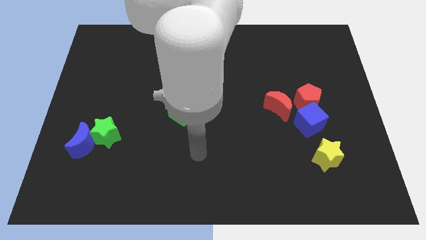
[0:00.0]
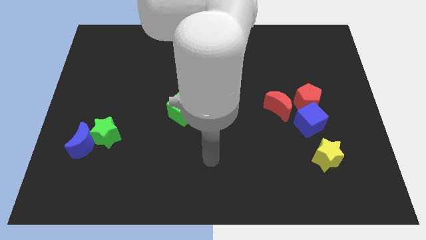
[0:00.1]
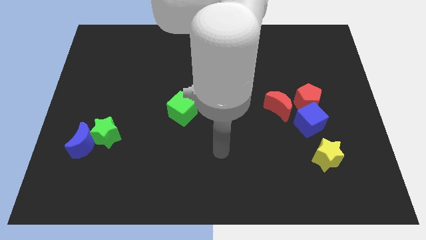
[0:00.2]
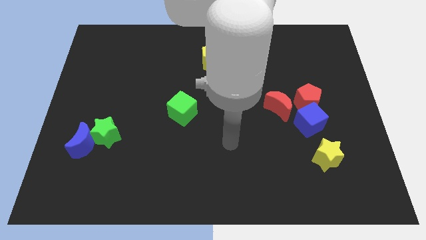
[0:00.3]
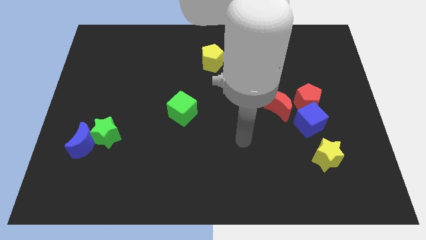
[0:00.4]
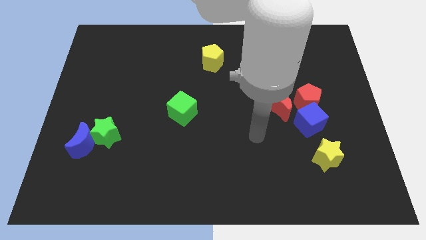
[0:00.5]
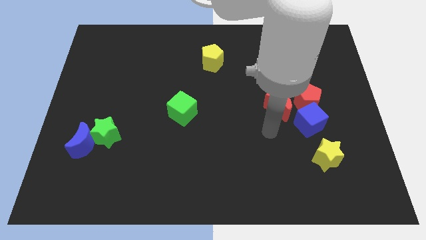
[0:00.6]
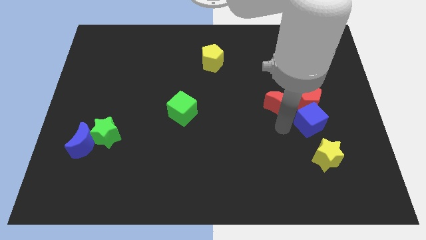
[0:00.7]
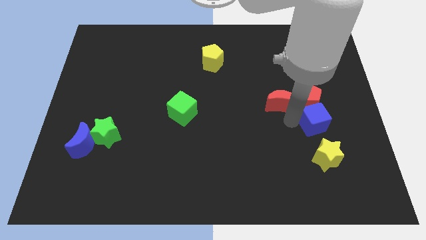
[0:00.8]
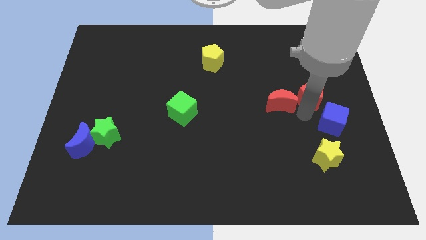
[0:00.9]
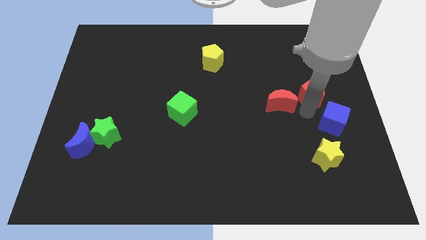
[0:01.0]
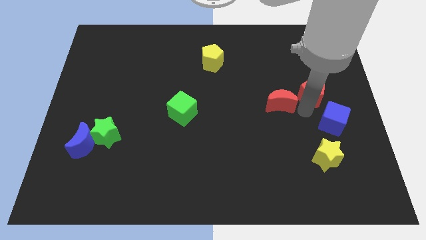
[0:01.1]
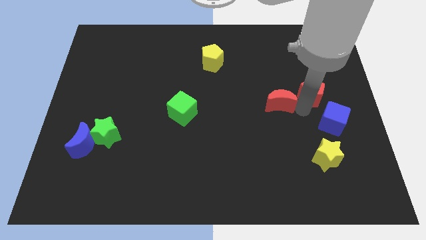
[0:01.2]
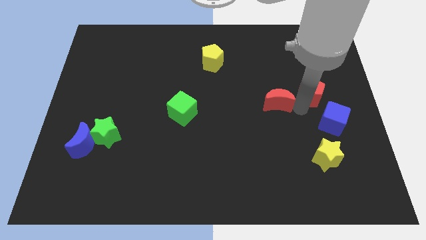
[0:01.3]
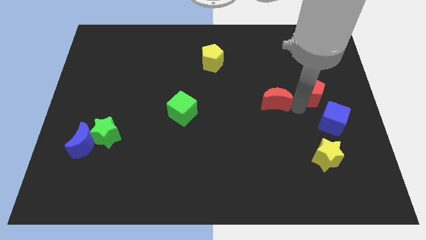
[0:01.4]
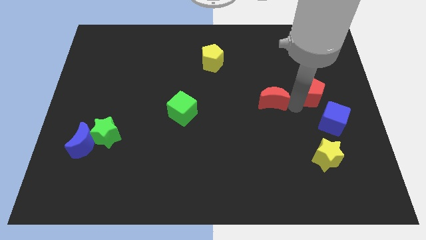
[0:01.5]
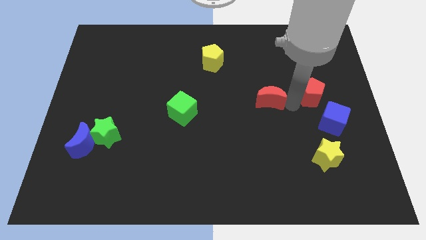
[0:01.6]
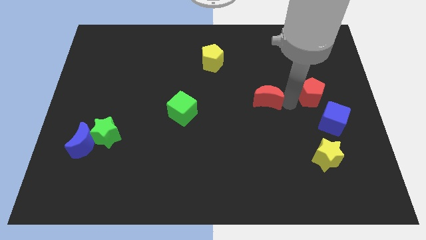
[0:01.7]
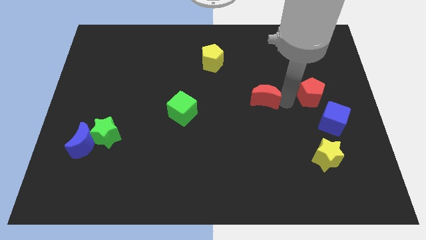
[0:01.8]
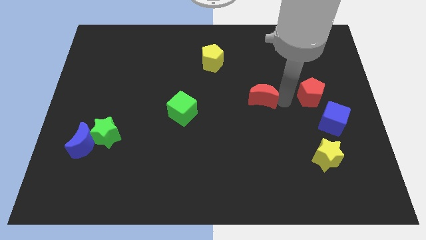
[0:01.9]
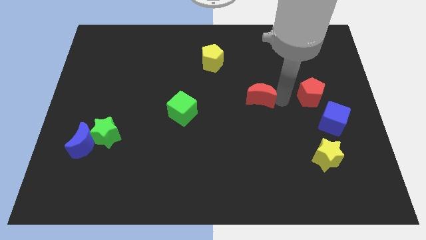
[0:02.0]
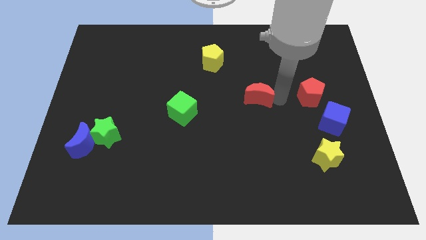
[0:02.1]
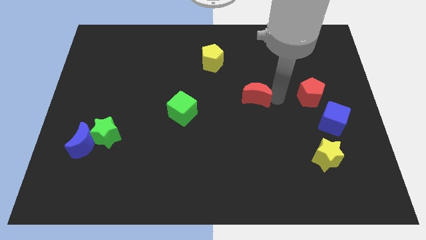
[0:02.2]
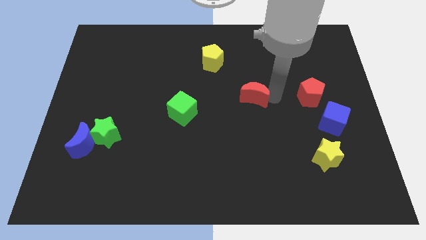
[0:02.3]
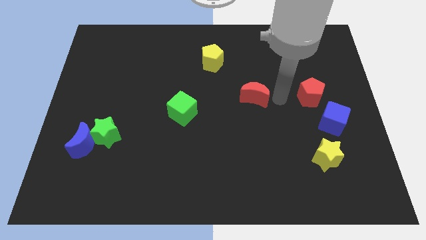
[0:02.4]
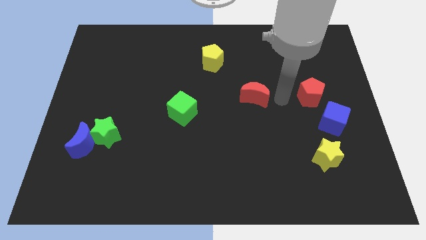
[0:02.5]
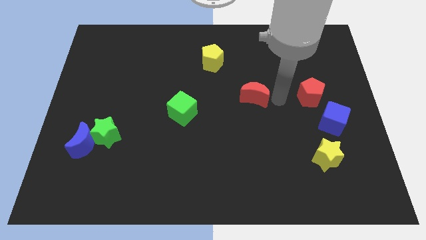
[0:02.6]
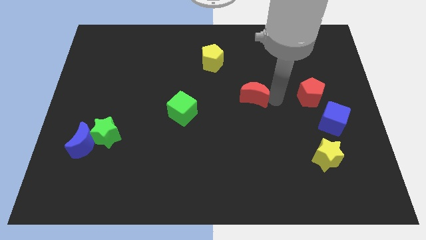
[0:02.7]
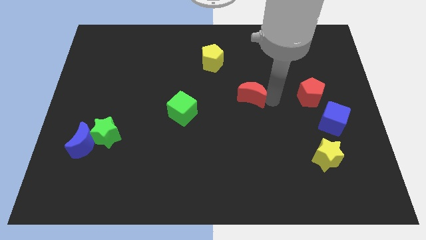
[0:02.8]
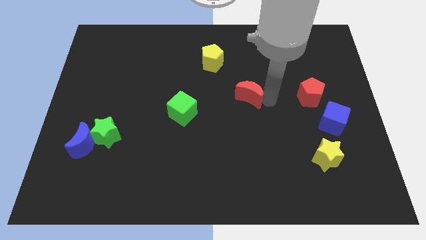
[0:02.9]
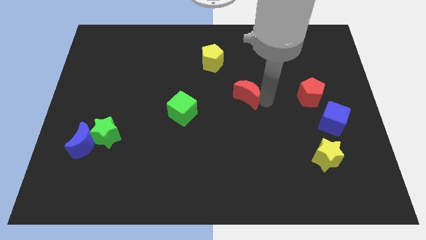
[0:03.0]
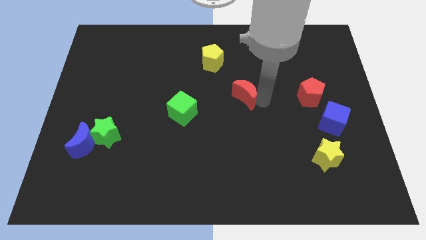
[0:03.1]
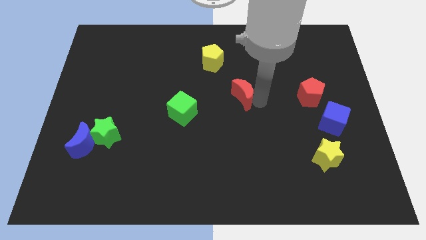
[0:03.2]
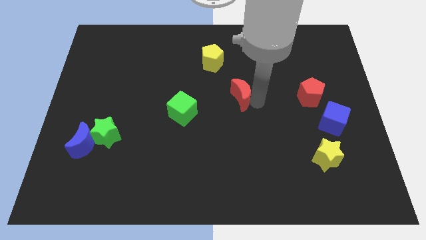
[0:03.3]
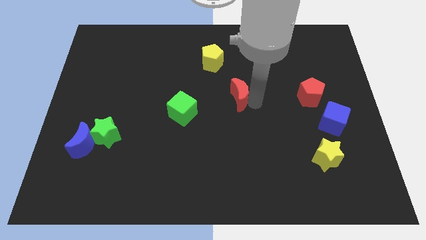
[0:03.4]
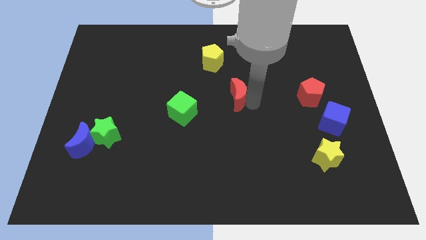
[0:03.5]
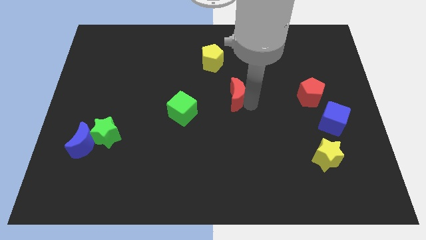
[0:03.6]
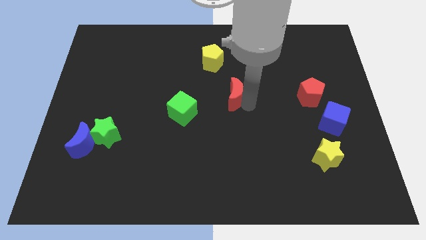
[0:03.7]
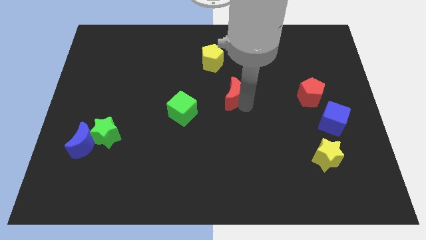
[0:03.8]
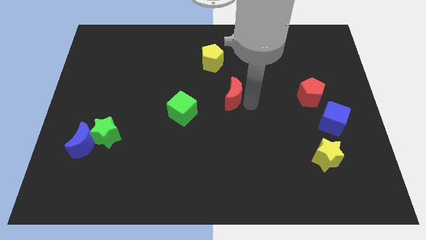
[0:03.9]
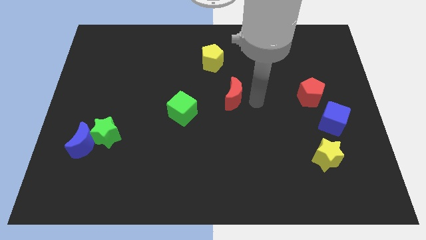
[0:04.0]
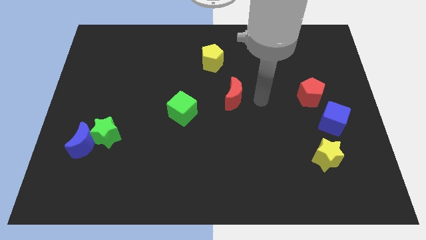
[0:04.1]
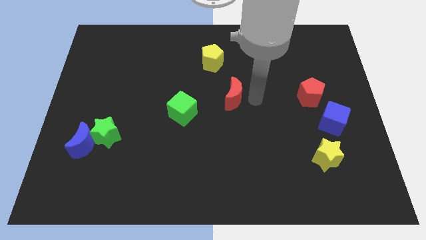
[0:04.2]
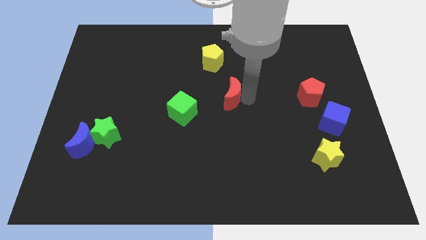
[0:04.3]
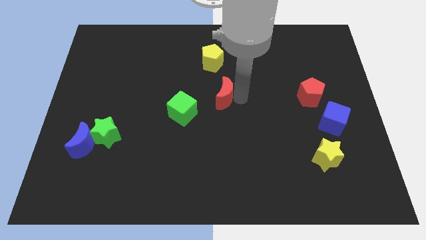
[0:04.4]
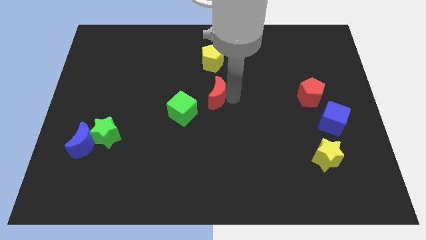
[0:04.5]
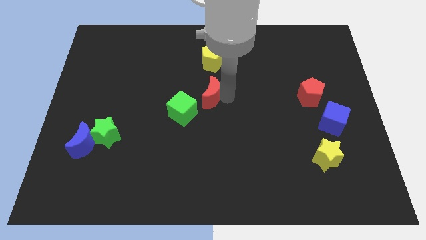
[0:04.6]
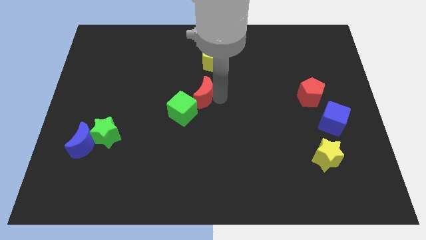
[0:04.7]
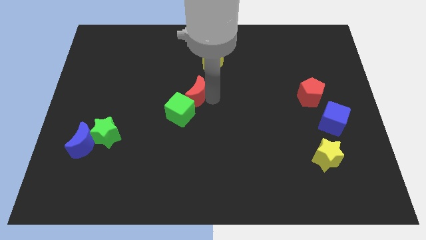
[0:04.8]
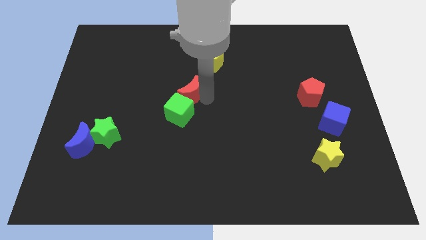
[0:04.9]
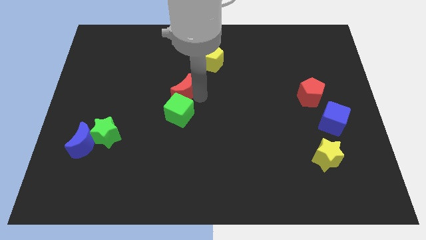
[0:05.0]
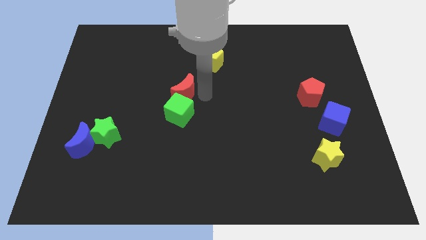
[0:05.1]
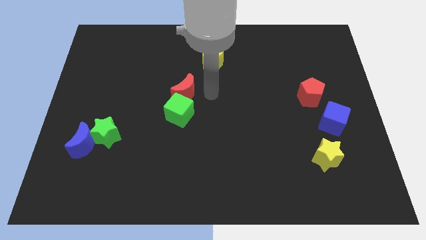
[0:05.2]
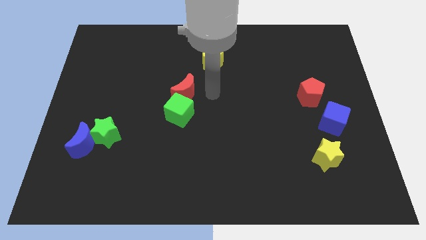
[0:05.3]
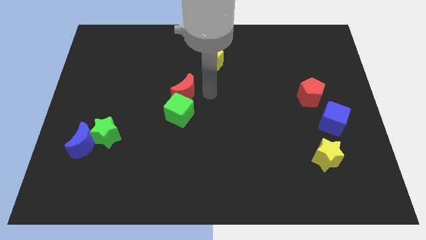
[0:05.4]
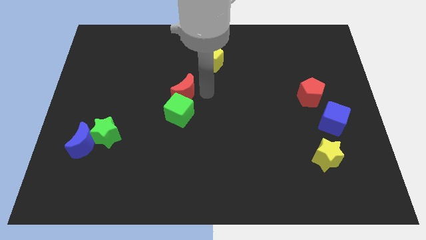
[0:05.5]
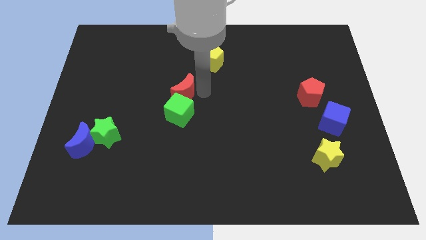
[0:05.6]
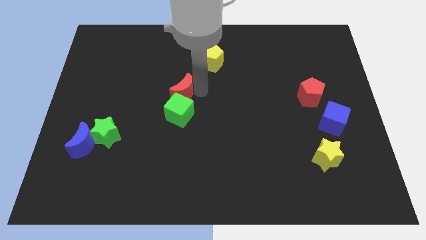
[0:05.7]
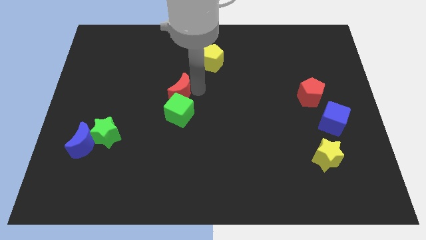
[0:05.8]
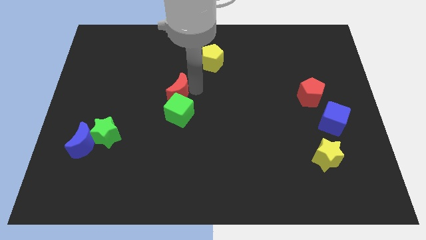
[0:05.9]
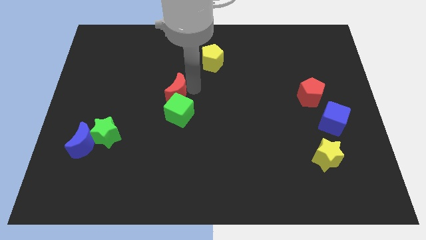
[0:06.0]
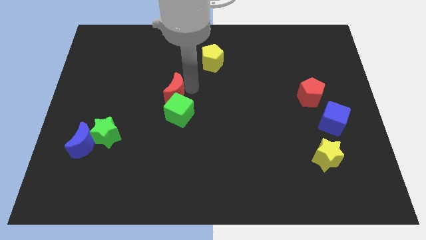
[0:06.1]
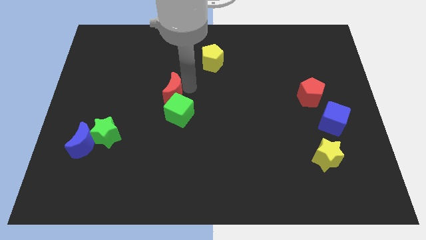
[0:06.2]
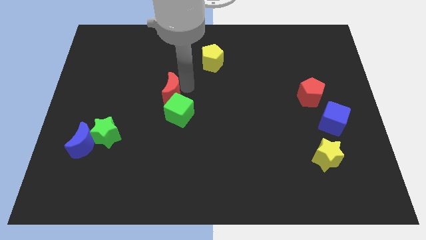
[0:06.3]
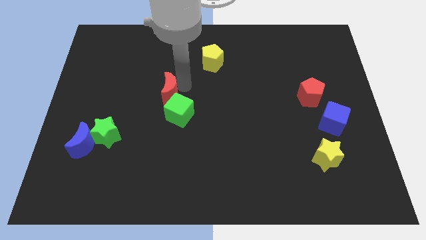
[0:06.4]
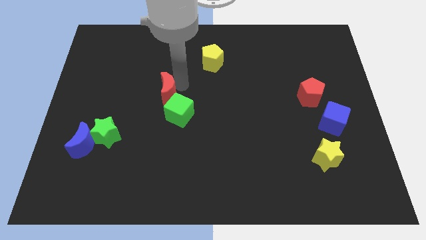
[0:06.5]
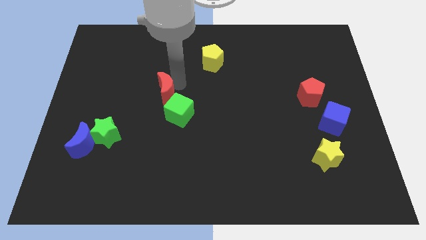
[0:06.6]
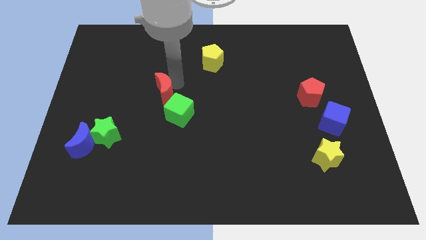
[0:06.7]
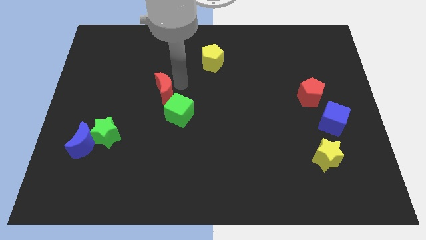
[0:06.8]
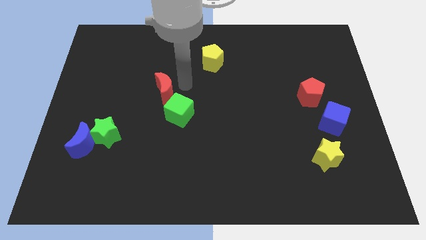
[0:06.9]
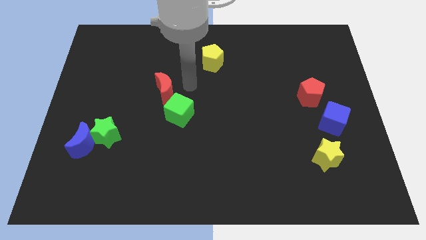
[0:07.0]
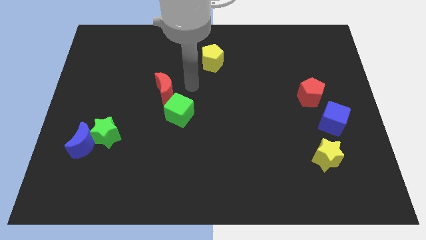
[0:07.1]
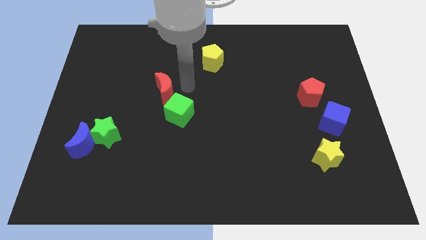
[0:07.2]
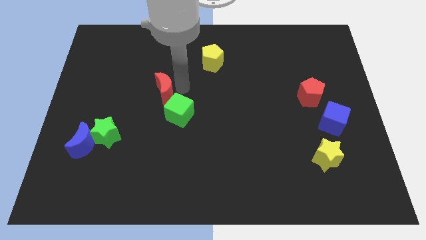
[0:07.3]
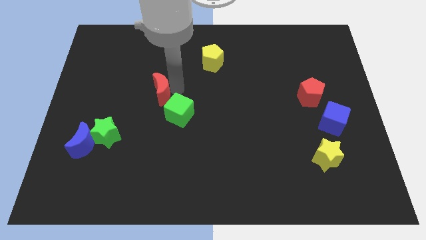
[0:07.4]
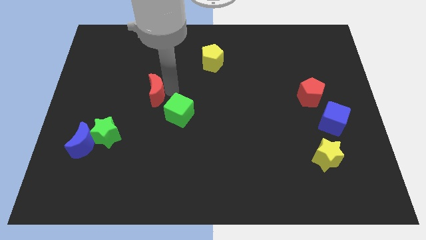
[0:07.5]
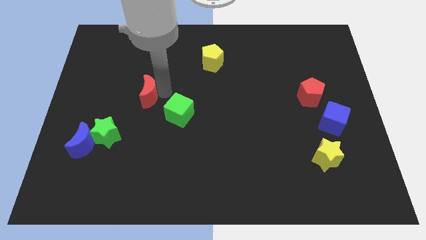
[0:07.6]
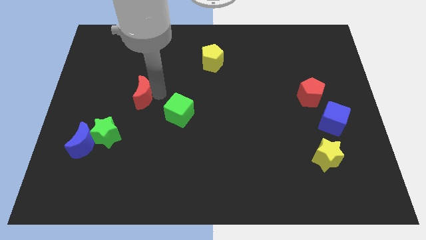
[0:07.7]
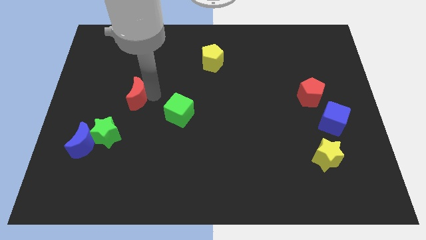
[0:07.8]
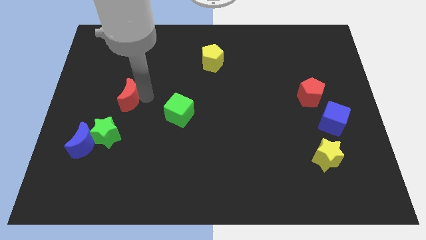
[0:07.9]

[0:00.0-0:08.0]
move the red moon to the top of the green star
